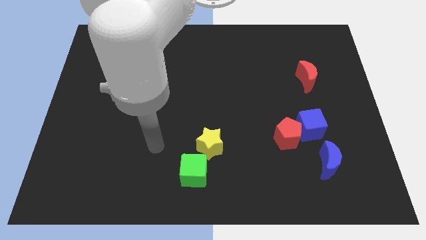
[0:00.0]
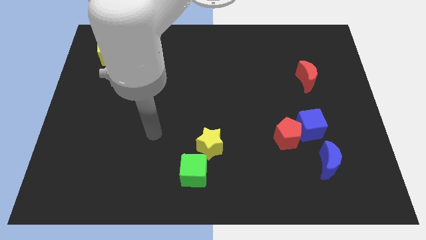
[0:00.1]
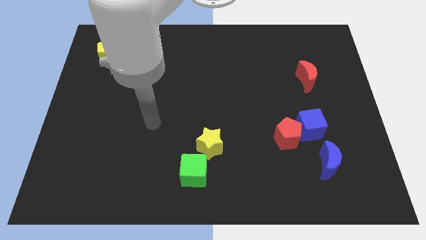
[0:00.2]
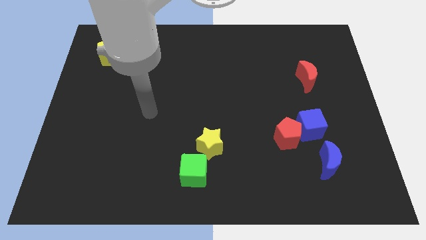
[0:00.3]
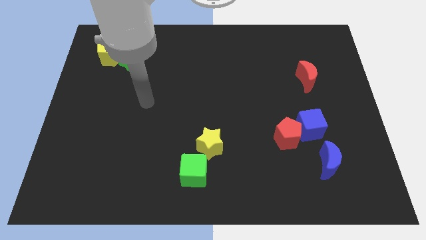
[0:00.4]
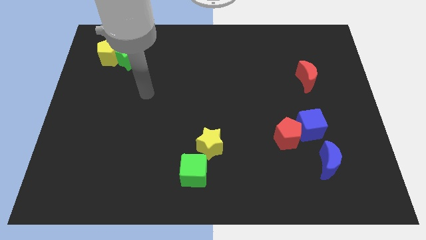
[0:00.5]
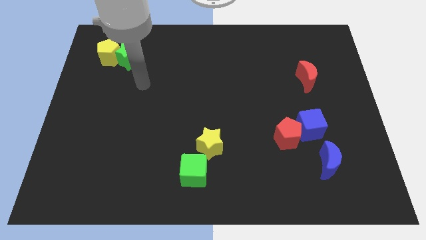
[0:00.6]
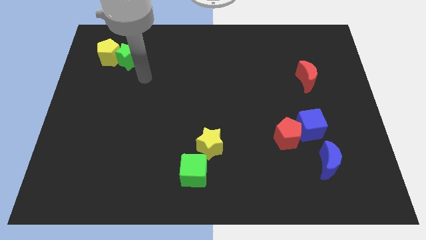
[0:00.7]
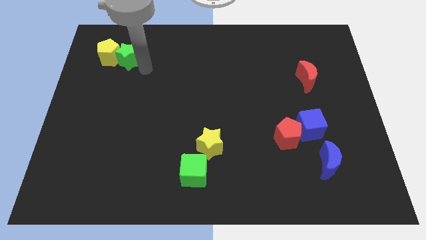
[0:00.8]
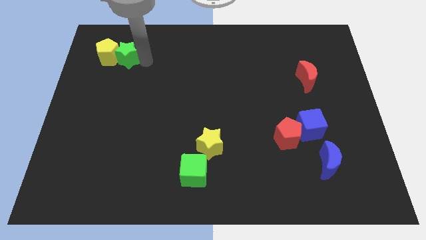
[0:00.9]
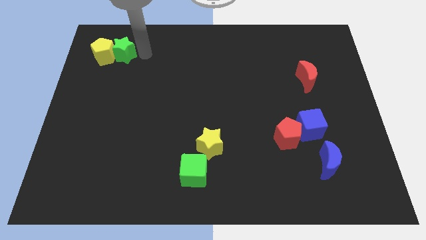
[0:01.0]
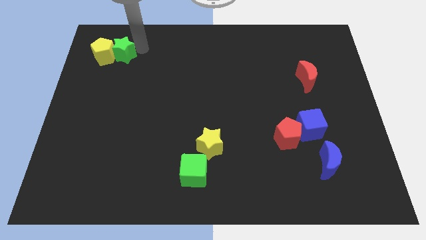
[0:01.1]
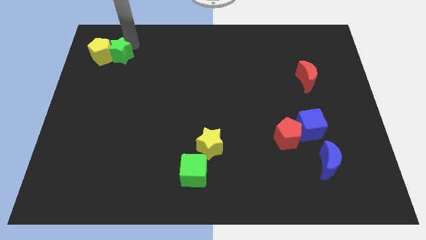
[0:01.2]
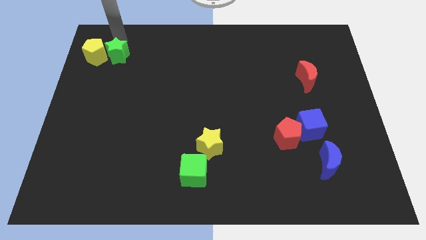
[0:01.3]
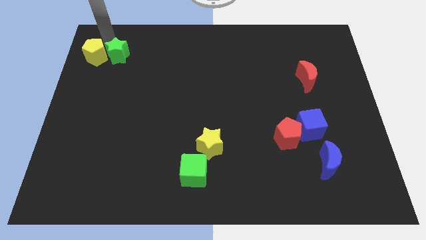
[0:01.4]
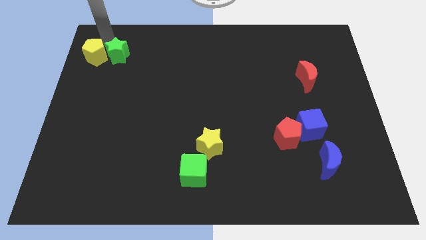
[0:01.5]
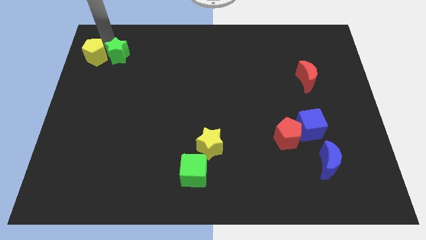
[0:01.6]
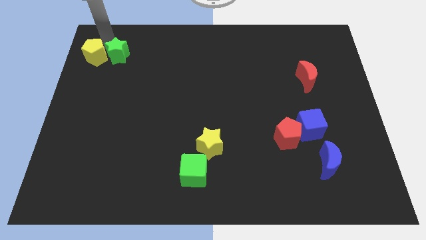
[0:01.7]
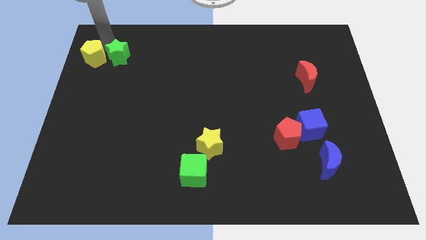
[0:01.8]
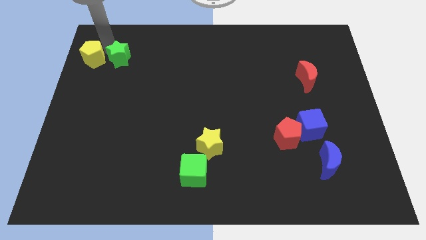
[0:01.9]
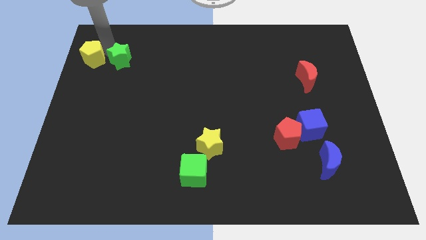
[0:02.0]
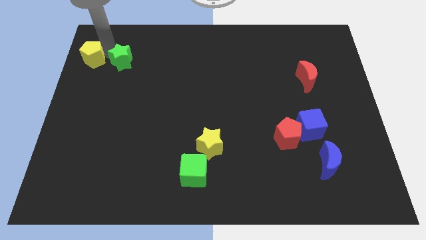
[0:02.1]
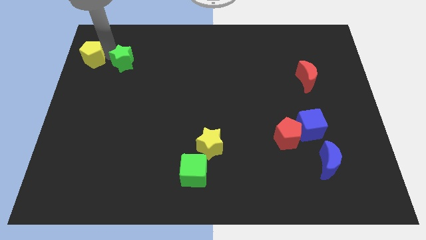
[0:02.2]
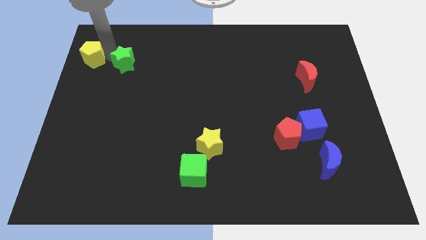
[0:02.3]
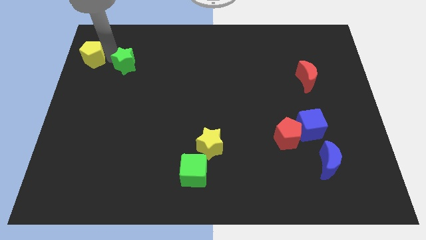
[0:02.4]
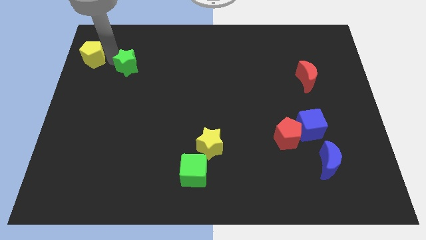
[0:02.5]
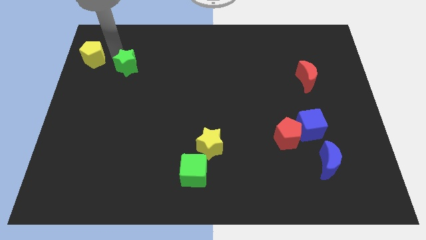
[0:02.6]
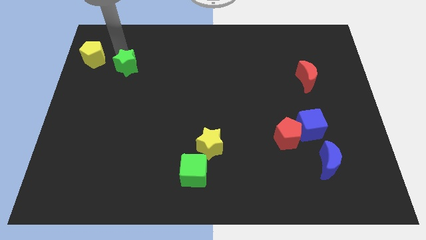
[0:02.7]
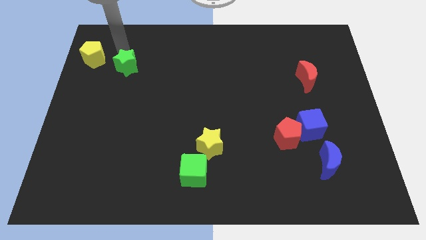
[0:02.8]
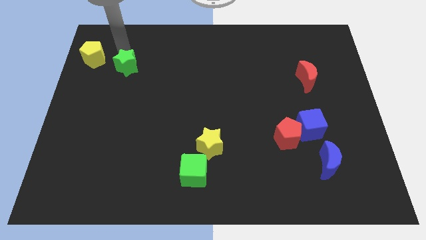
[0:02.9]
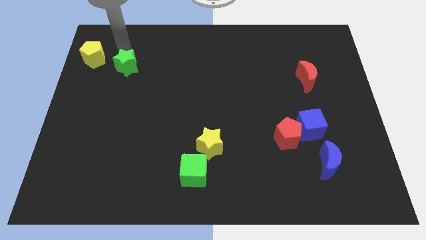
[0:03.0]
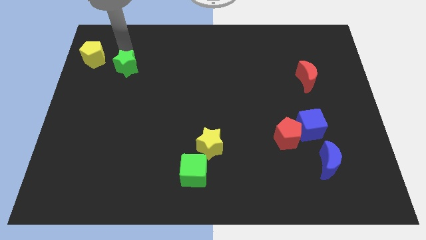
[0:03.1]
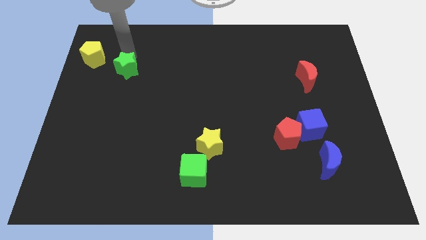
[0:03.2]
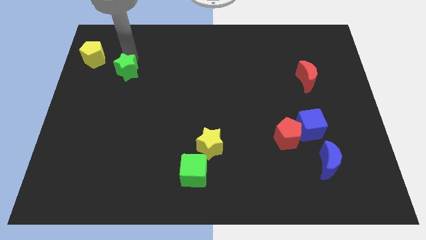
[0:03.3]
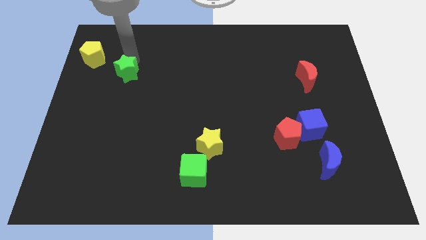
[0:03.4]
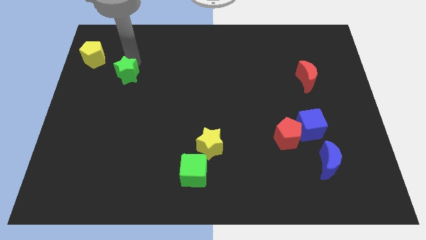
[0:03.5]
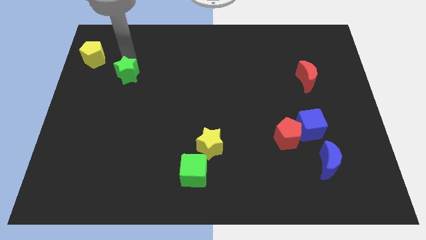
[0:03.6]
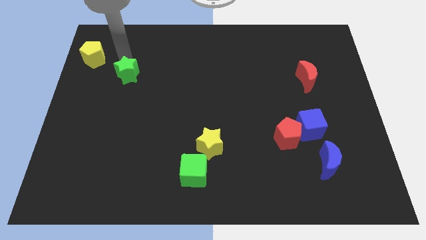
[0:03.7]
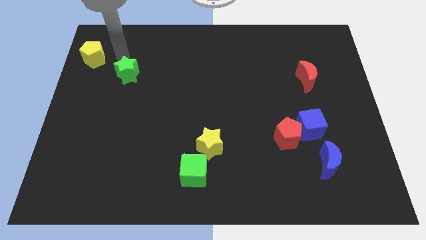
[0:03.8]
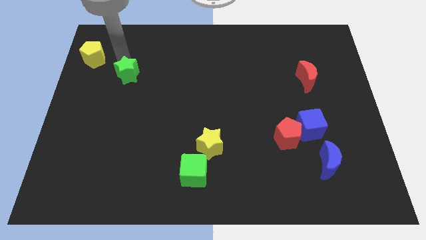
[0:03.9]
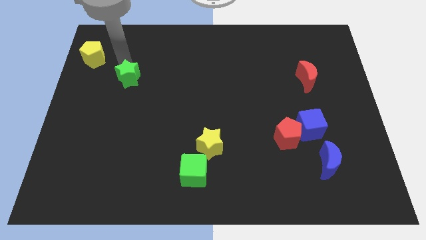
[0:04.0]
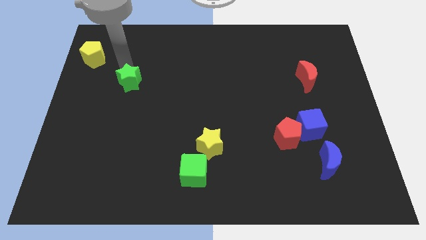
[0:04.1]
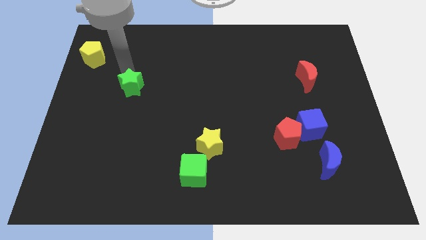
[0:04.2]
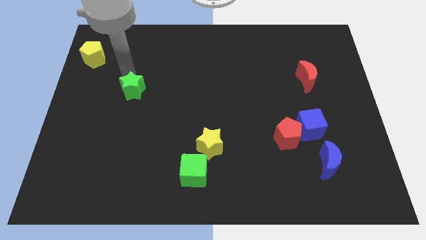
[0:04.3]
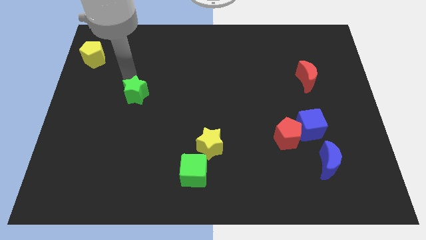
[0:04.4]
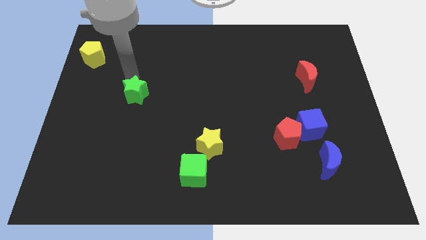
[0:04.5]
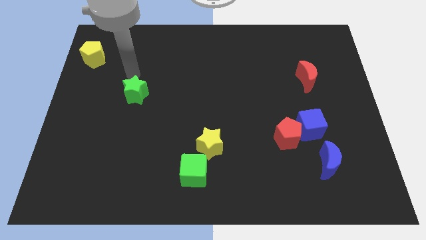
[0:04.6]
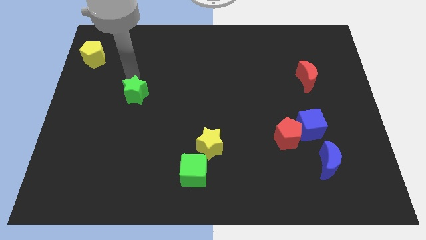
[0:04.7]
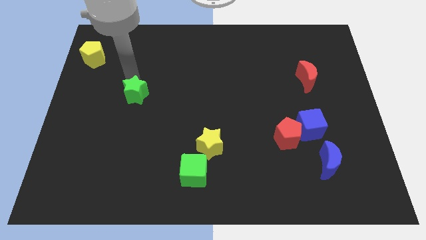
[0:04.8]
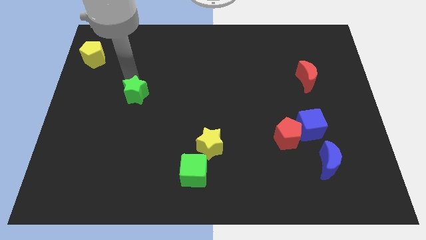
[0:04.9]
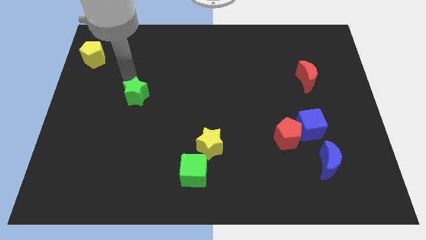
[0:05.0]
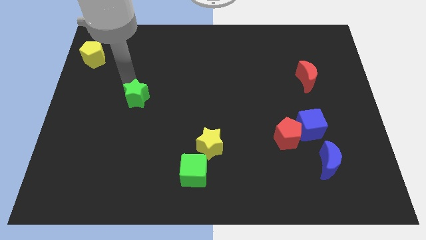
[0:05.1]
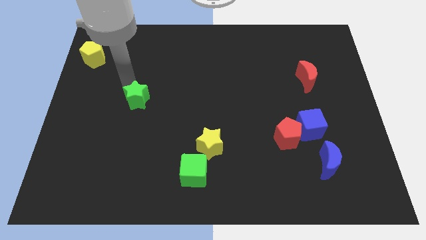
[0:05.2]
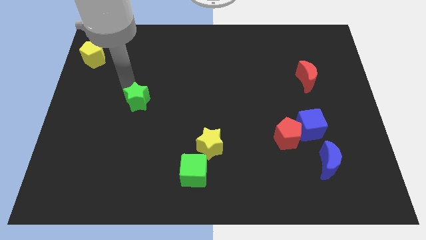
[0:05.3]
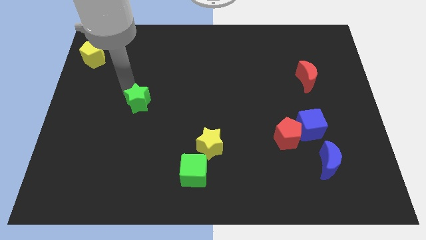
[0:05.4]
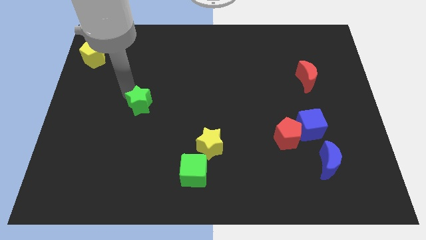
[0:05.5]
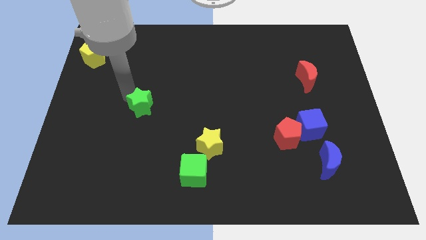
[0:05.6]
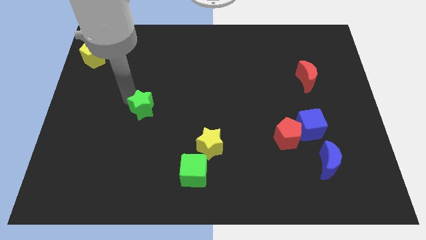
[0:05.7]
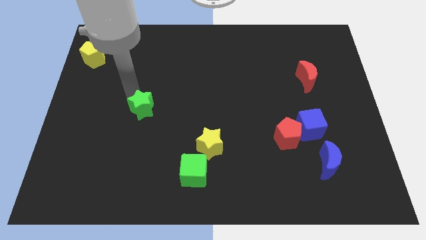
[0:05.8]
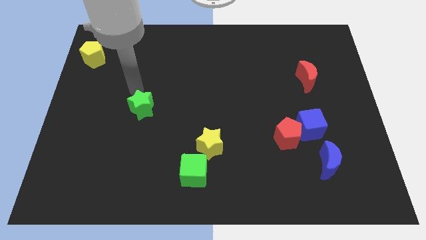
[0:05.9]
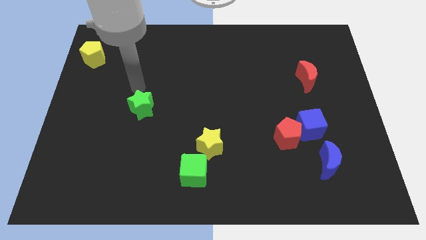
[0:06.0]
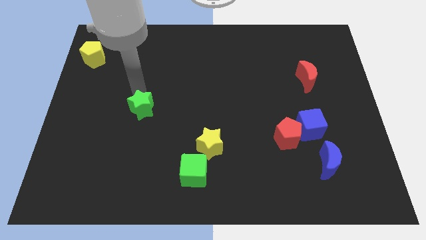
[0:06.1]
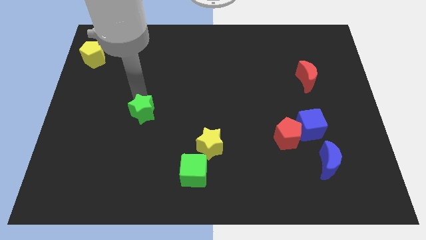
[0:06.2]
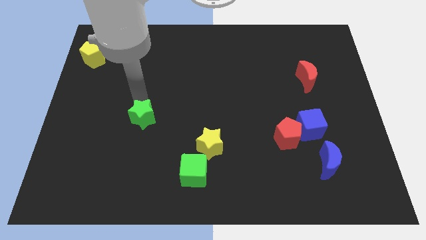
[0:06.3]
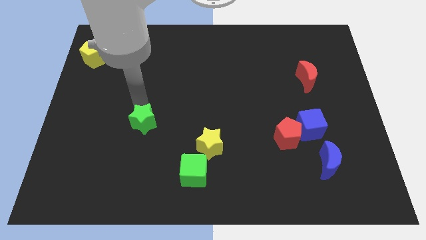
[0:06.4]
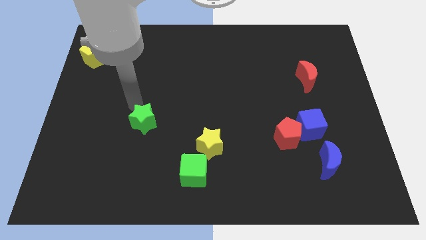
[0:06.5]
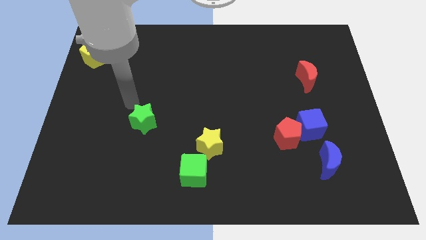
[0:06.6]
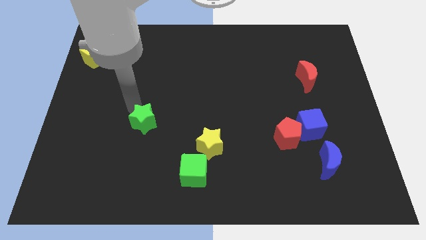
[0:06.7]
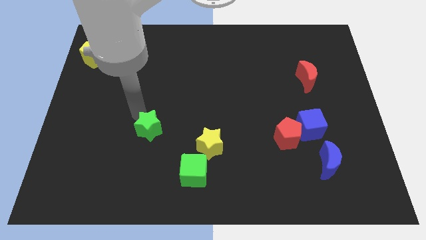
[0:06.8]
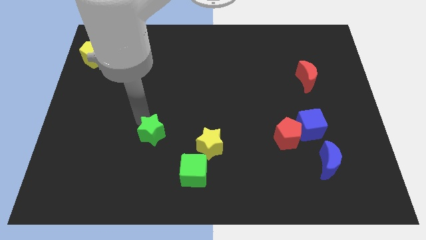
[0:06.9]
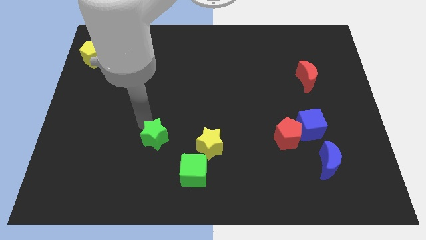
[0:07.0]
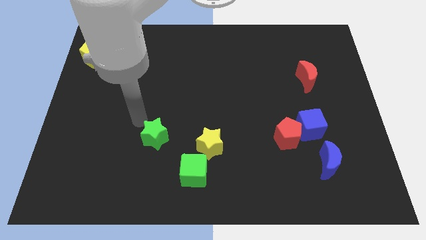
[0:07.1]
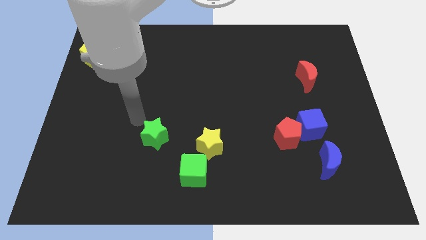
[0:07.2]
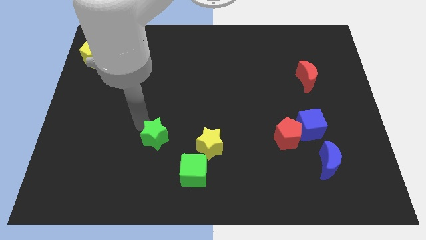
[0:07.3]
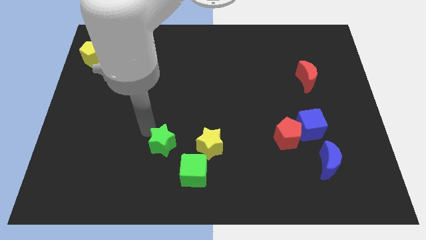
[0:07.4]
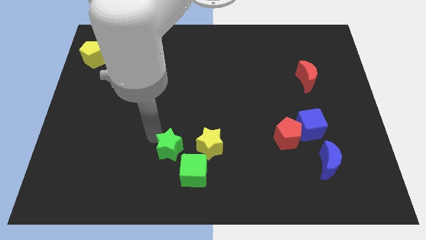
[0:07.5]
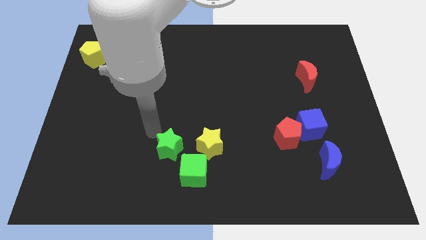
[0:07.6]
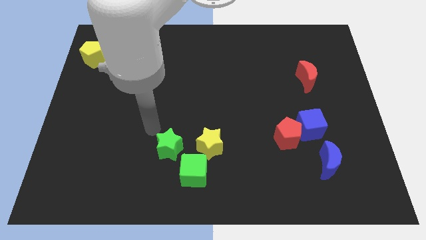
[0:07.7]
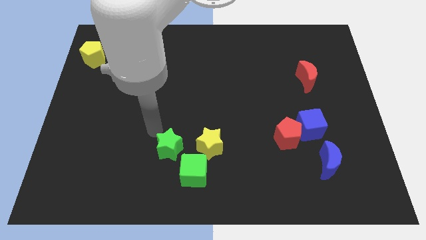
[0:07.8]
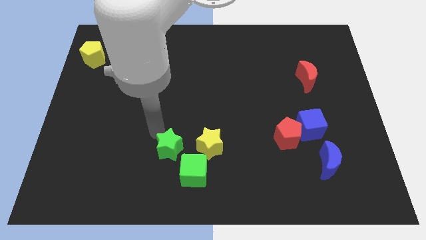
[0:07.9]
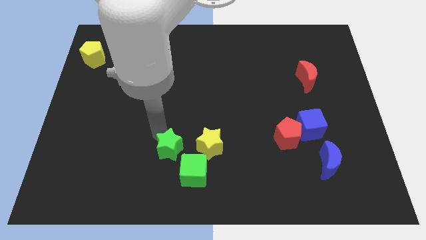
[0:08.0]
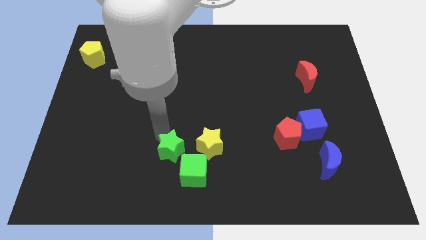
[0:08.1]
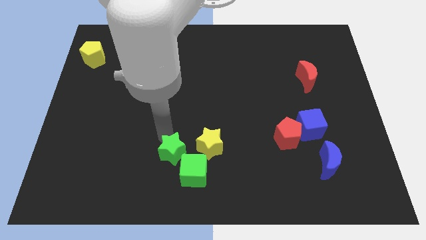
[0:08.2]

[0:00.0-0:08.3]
move the green star to the bottom left side of the yellow star
